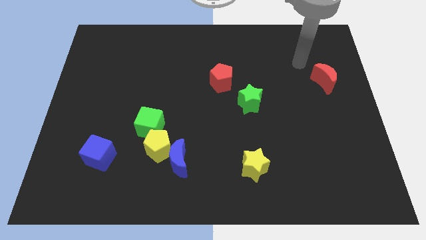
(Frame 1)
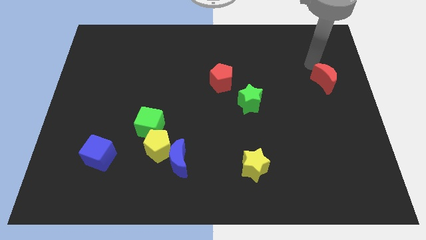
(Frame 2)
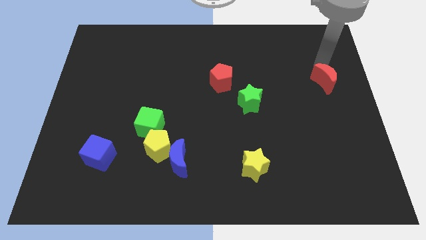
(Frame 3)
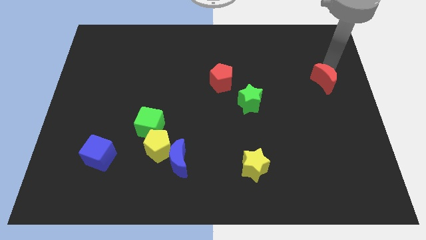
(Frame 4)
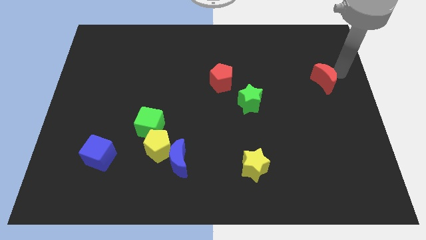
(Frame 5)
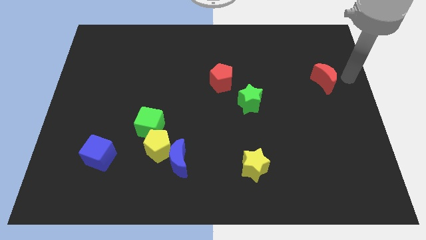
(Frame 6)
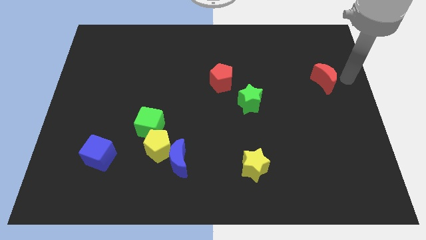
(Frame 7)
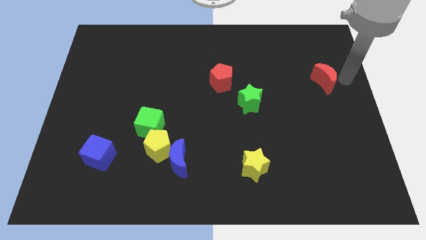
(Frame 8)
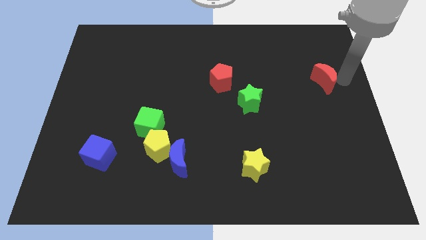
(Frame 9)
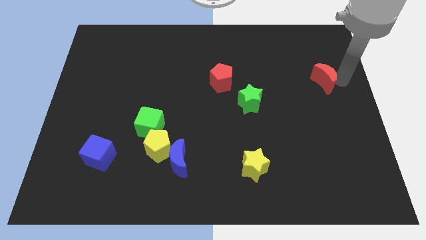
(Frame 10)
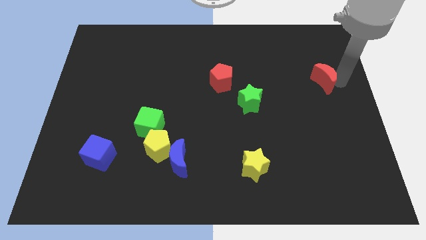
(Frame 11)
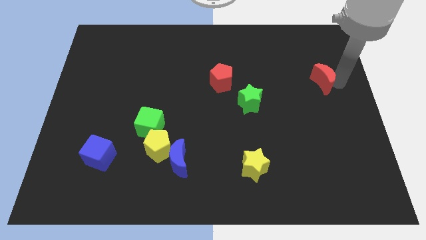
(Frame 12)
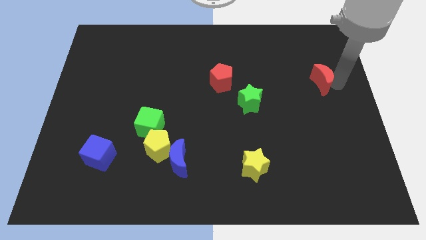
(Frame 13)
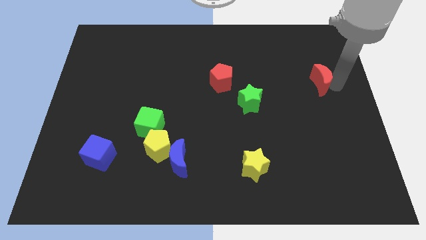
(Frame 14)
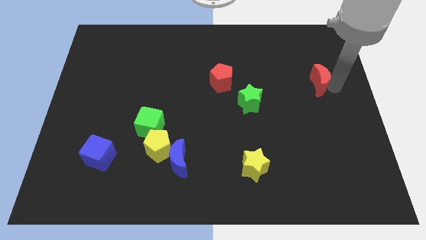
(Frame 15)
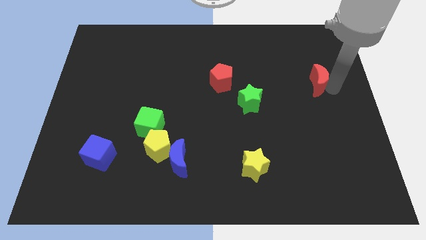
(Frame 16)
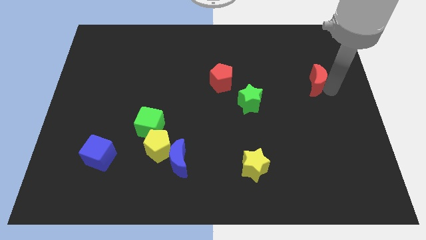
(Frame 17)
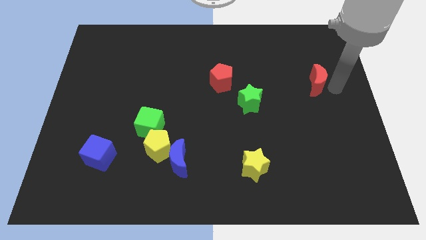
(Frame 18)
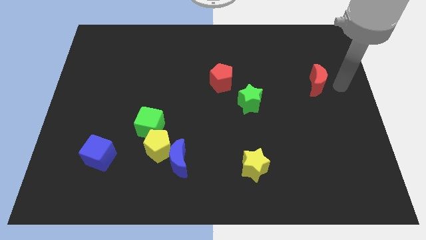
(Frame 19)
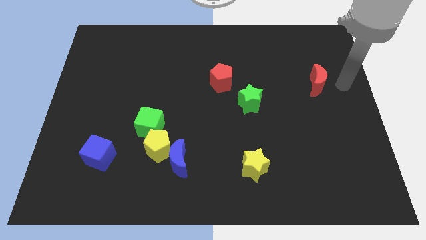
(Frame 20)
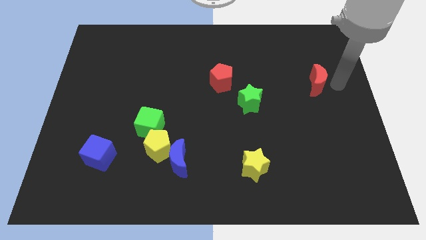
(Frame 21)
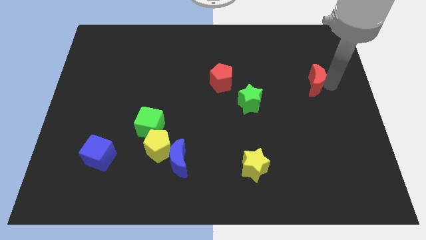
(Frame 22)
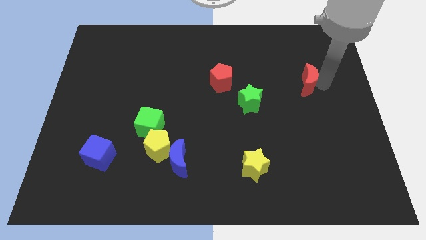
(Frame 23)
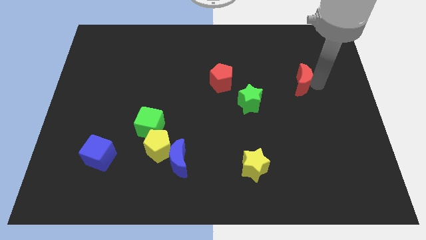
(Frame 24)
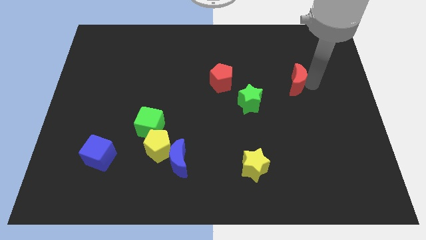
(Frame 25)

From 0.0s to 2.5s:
slightly push the red moon left

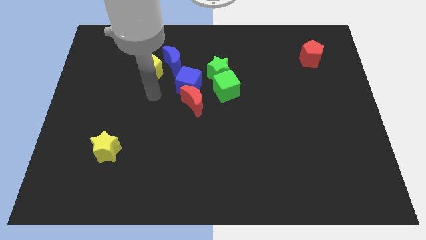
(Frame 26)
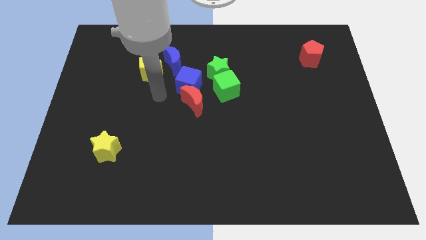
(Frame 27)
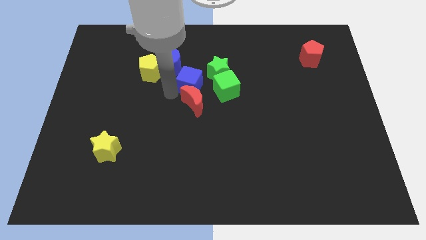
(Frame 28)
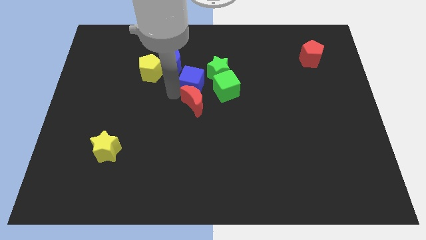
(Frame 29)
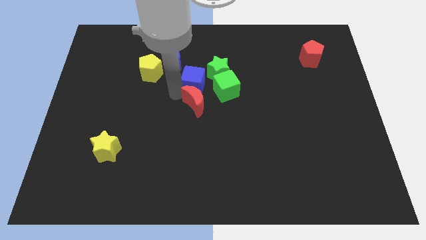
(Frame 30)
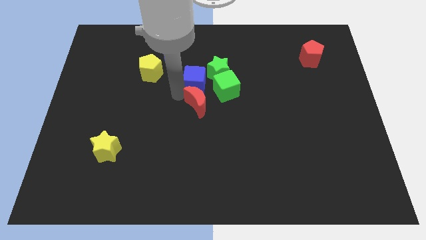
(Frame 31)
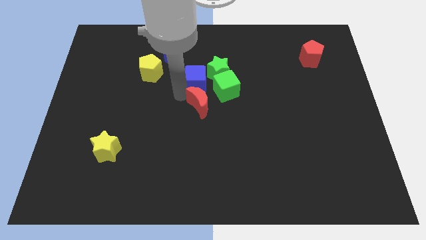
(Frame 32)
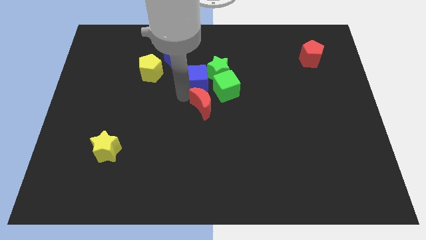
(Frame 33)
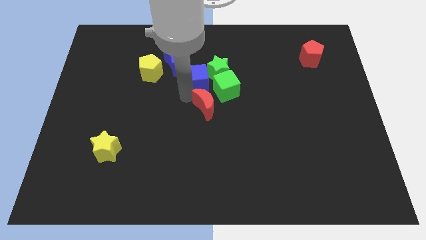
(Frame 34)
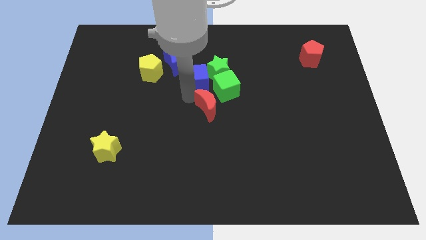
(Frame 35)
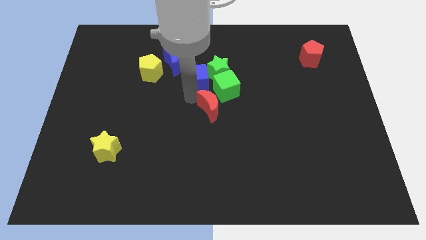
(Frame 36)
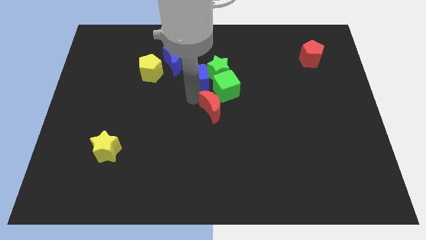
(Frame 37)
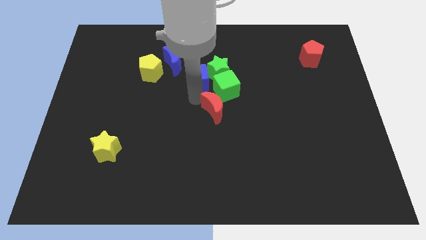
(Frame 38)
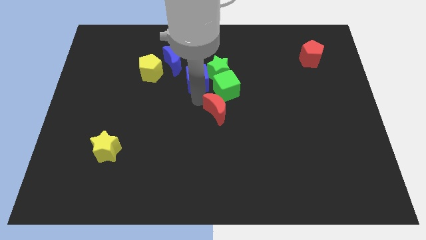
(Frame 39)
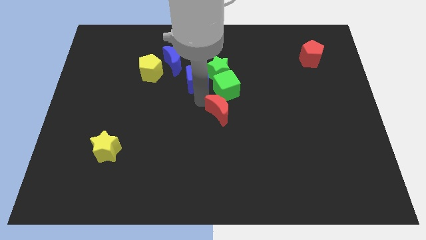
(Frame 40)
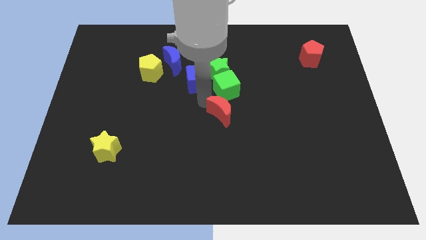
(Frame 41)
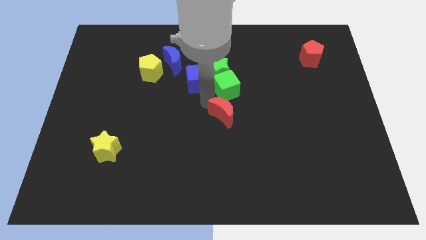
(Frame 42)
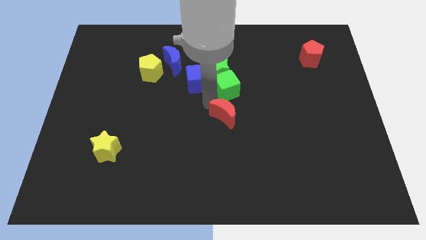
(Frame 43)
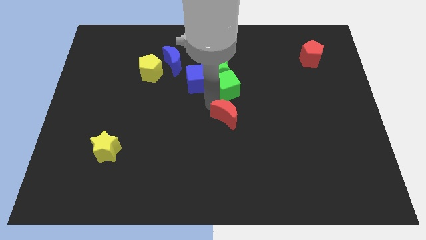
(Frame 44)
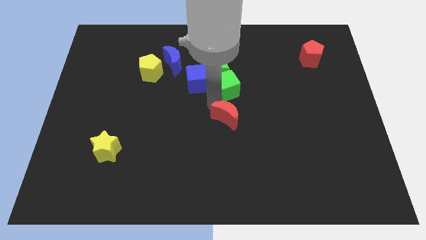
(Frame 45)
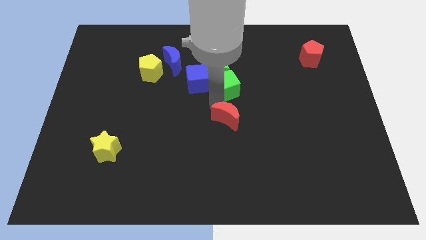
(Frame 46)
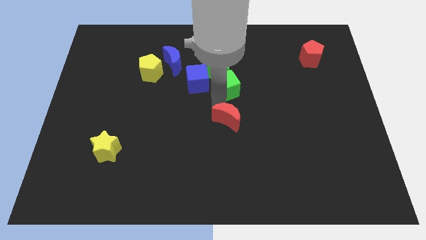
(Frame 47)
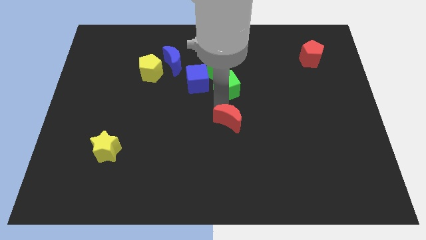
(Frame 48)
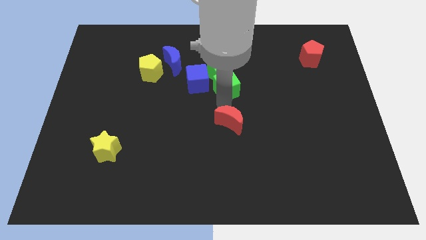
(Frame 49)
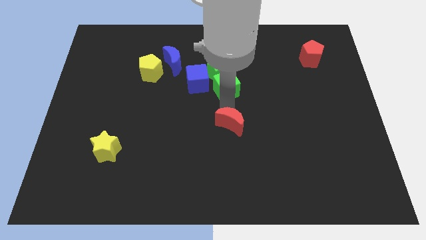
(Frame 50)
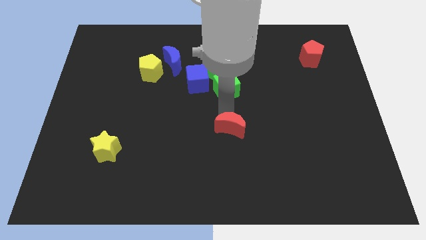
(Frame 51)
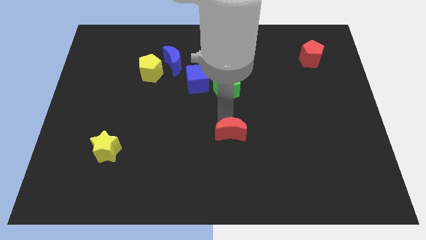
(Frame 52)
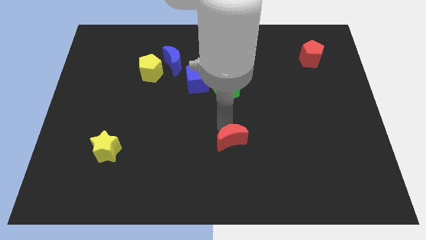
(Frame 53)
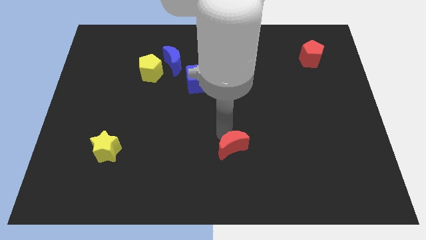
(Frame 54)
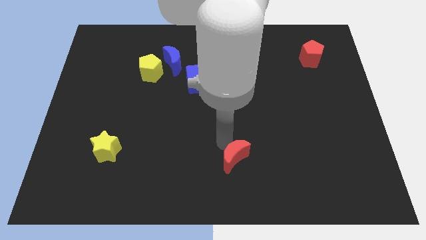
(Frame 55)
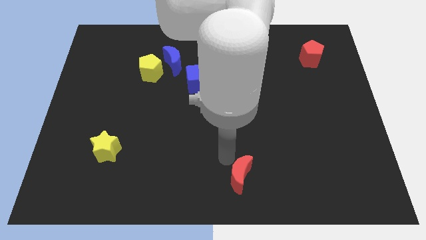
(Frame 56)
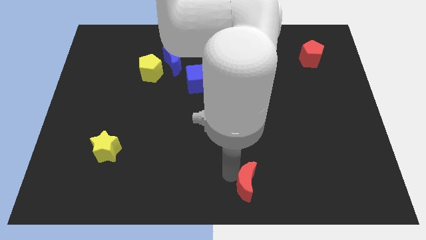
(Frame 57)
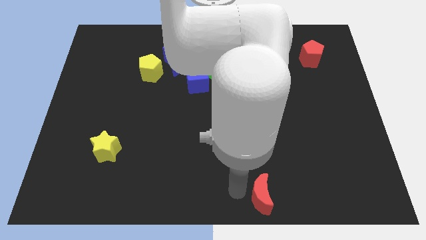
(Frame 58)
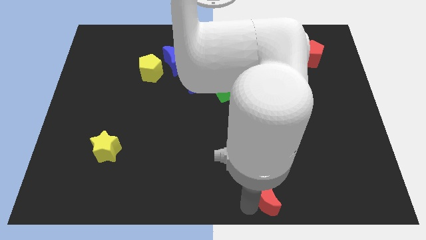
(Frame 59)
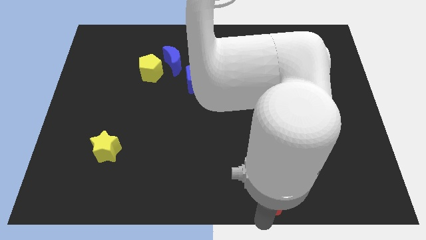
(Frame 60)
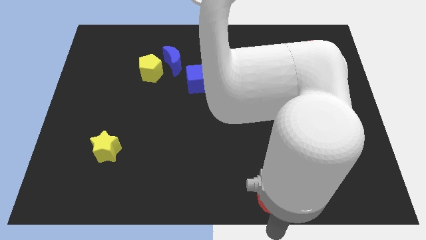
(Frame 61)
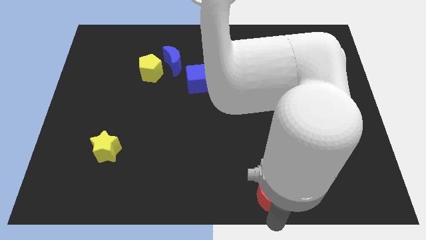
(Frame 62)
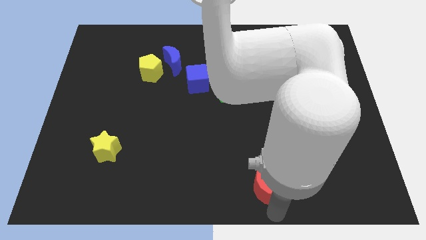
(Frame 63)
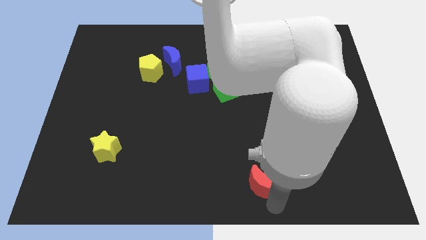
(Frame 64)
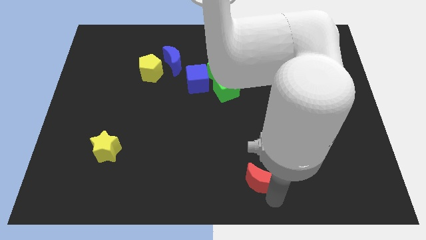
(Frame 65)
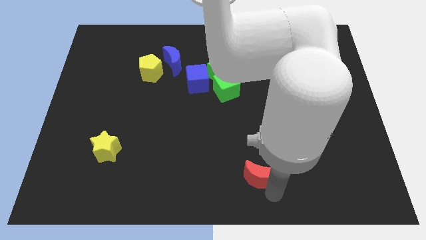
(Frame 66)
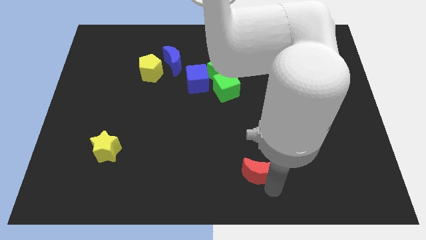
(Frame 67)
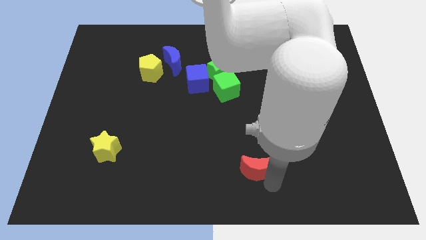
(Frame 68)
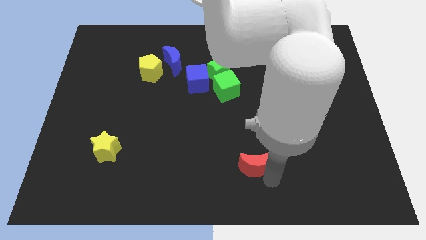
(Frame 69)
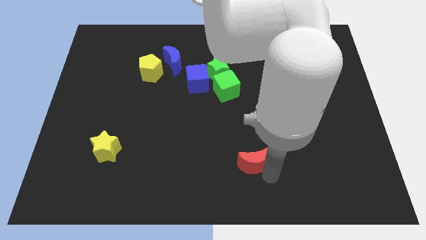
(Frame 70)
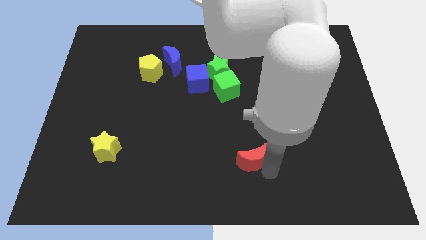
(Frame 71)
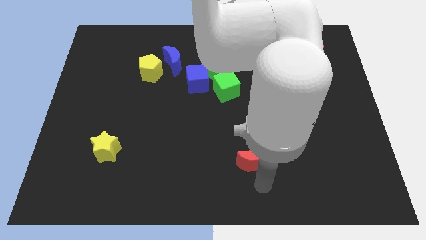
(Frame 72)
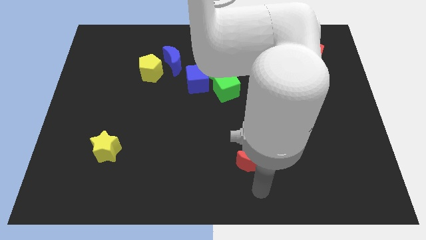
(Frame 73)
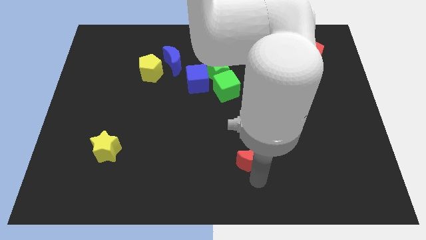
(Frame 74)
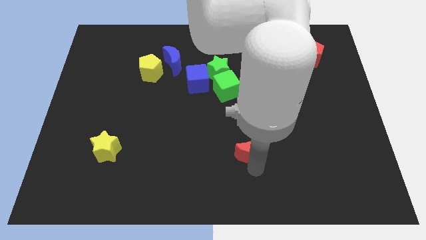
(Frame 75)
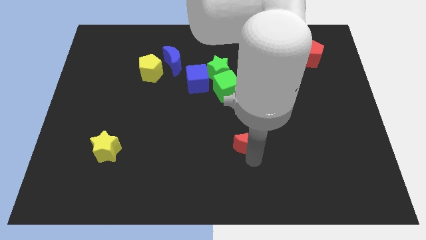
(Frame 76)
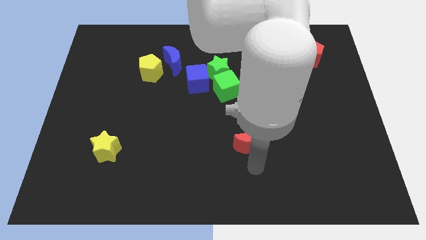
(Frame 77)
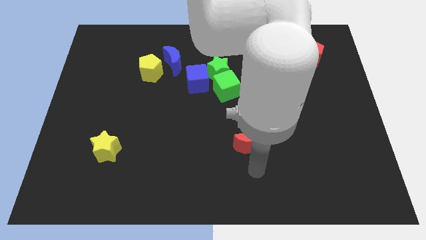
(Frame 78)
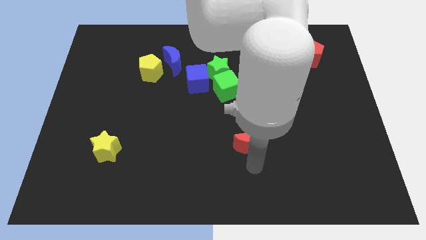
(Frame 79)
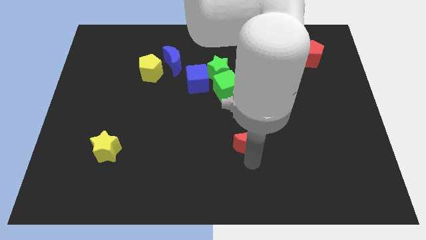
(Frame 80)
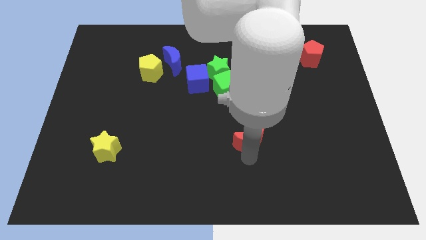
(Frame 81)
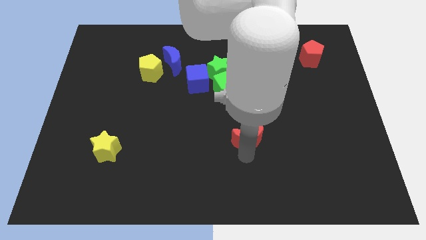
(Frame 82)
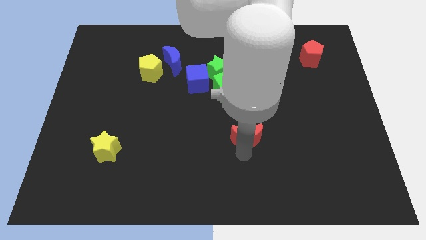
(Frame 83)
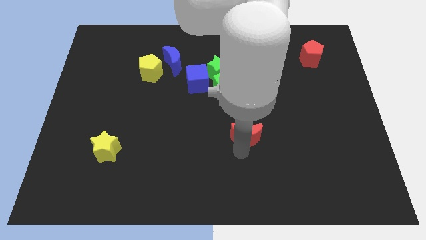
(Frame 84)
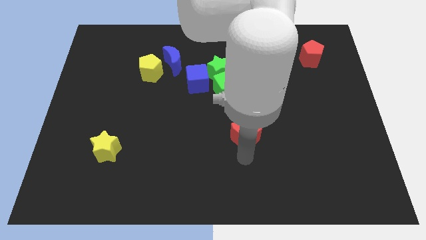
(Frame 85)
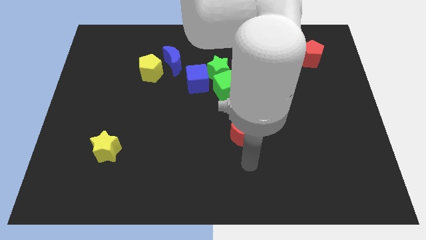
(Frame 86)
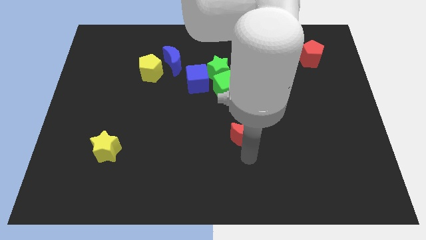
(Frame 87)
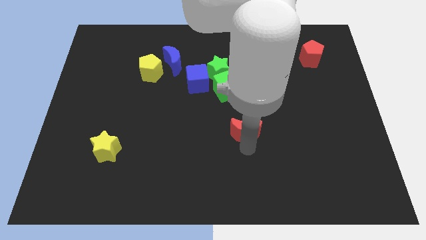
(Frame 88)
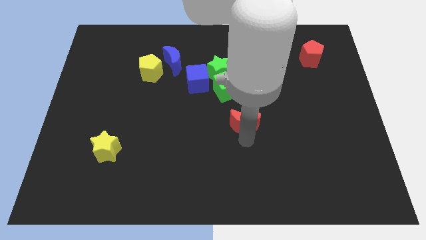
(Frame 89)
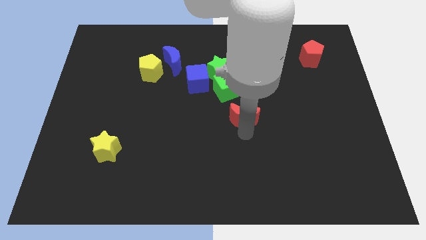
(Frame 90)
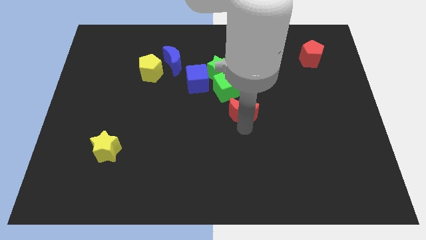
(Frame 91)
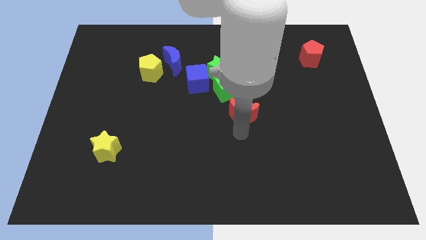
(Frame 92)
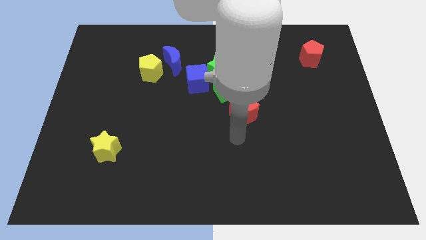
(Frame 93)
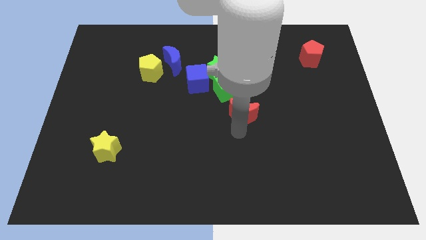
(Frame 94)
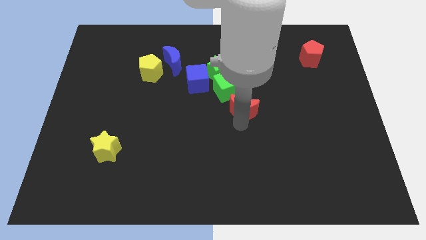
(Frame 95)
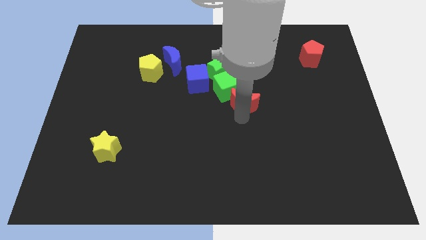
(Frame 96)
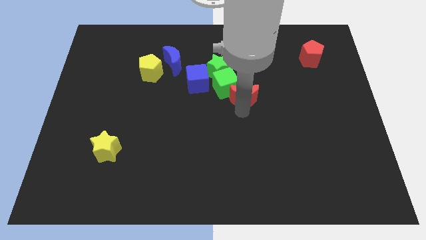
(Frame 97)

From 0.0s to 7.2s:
slightly push the red moon up and right
